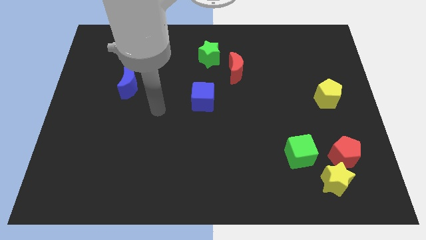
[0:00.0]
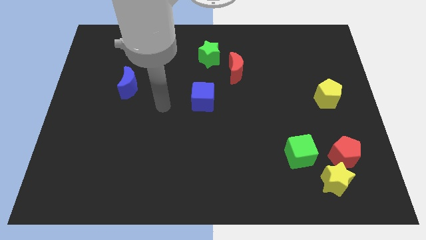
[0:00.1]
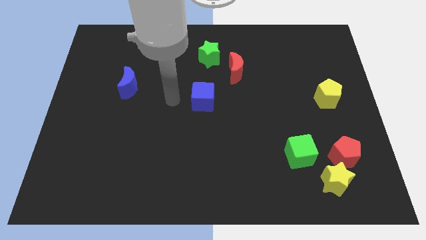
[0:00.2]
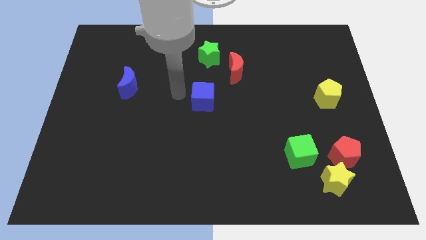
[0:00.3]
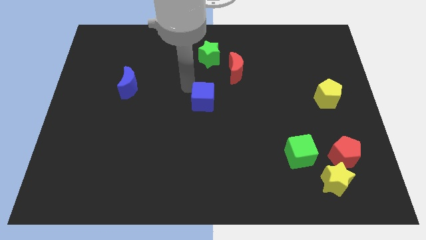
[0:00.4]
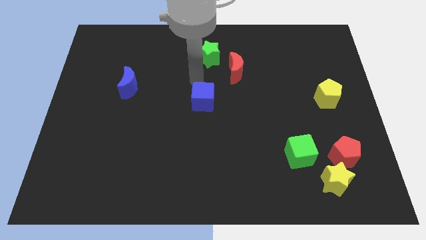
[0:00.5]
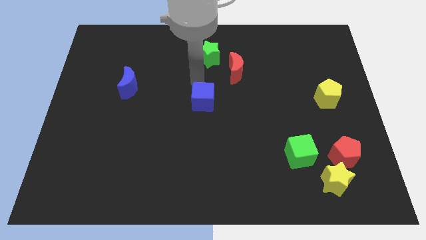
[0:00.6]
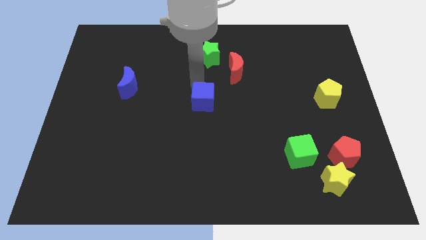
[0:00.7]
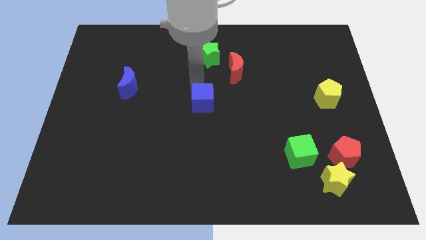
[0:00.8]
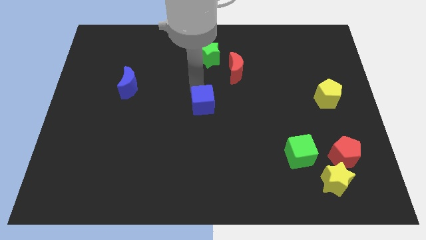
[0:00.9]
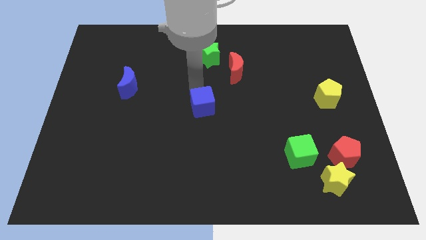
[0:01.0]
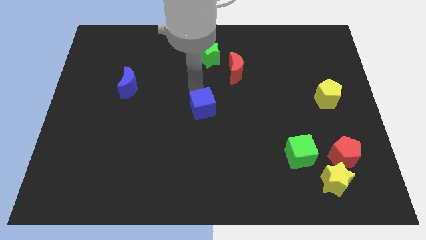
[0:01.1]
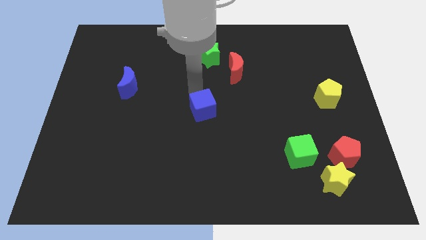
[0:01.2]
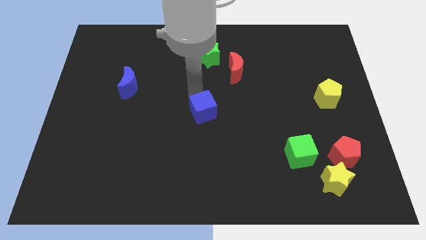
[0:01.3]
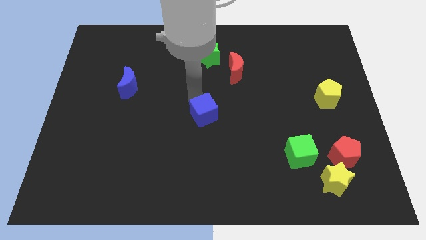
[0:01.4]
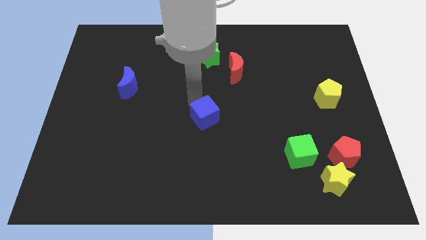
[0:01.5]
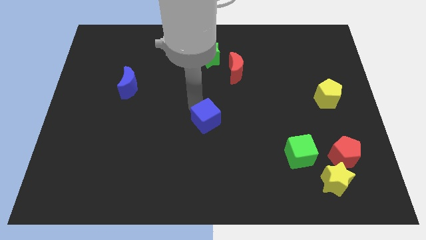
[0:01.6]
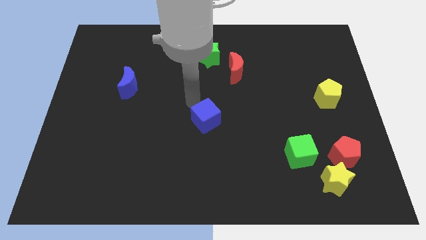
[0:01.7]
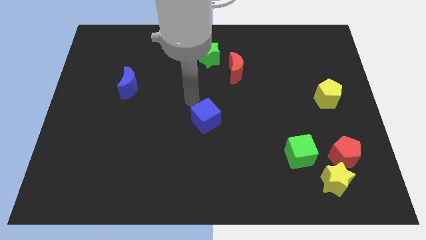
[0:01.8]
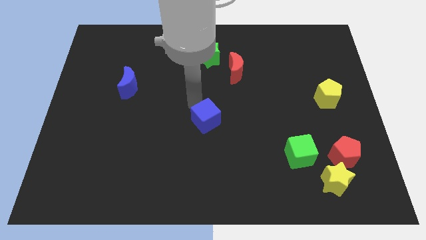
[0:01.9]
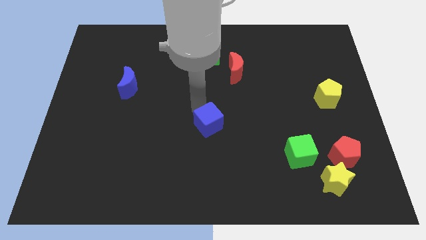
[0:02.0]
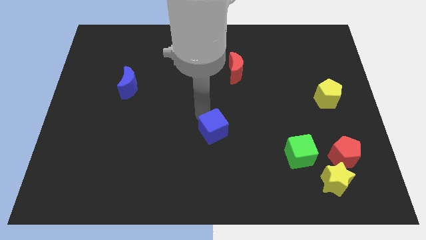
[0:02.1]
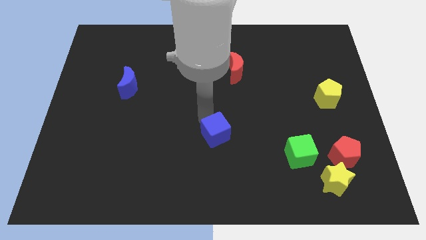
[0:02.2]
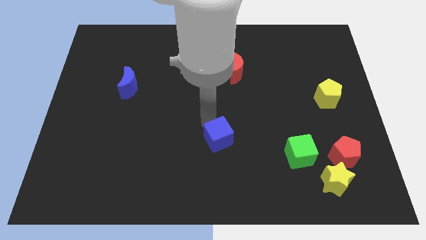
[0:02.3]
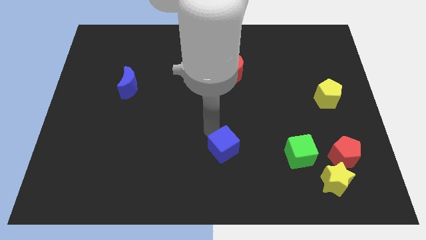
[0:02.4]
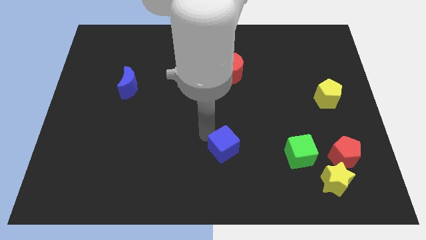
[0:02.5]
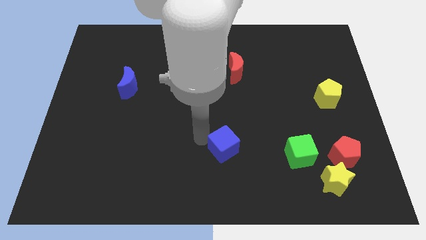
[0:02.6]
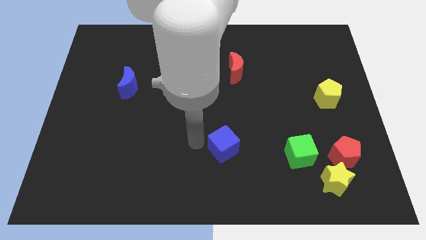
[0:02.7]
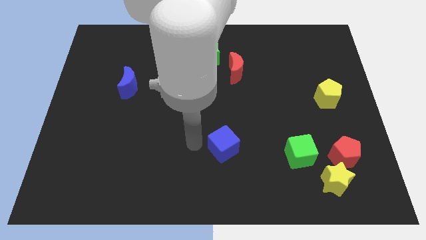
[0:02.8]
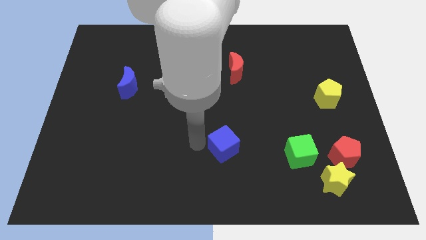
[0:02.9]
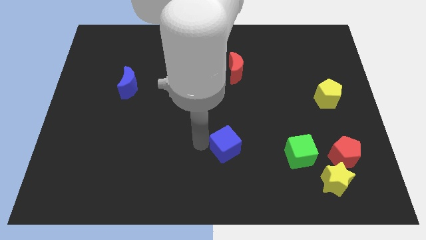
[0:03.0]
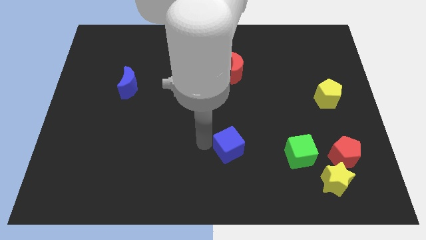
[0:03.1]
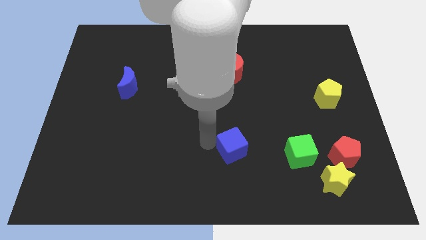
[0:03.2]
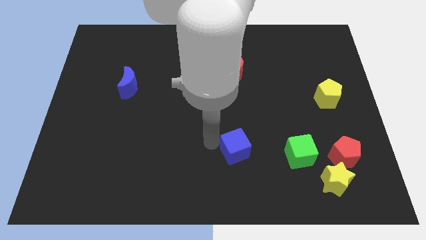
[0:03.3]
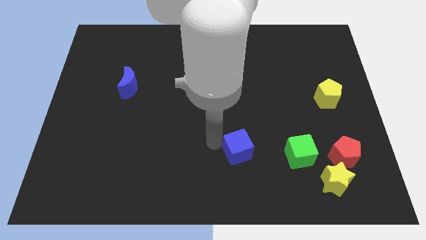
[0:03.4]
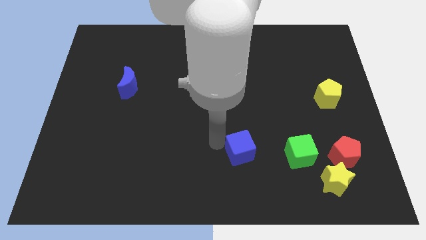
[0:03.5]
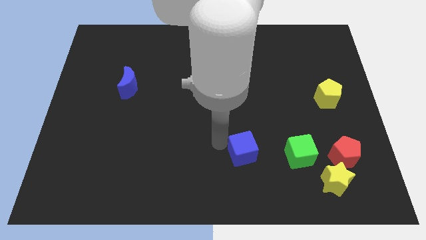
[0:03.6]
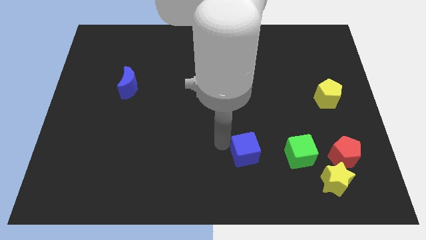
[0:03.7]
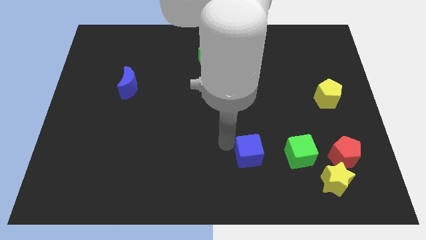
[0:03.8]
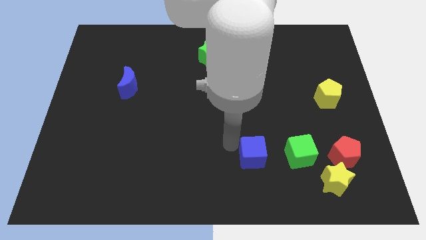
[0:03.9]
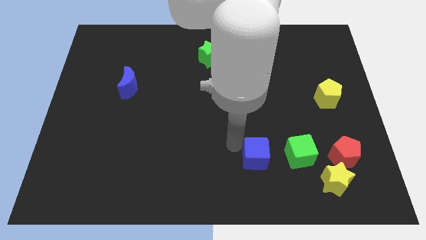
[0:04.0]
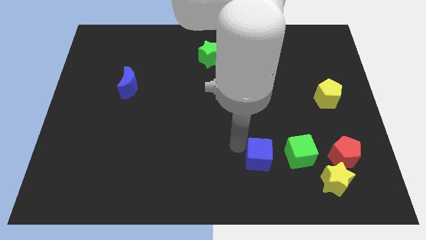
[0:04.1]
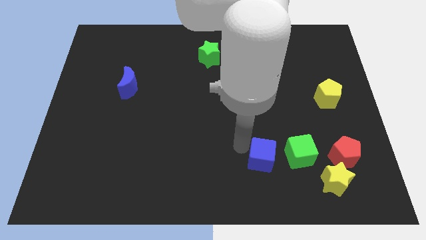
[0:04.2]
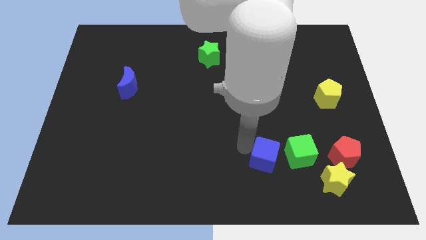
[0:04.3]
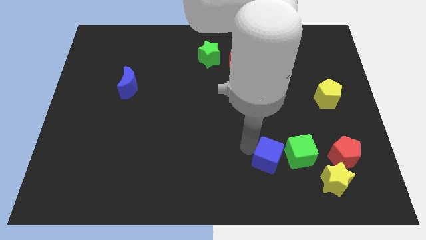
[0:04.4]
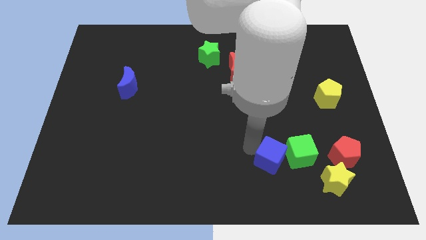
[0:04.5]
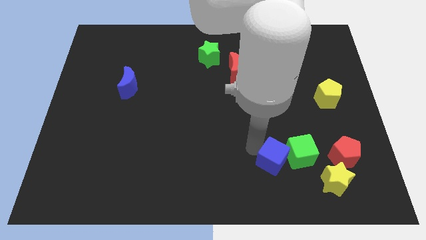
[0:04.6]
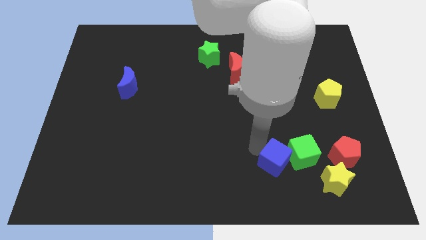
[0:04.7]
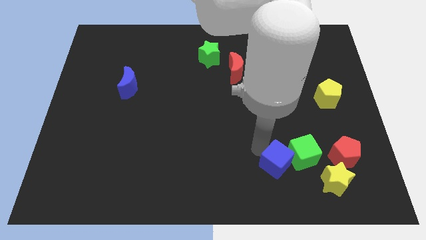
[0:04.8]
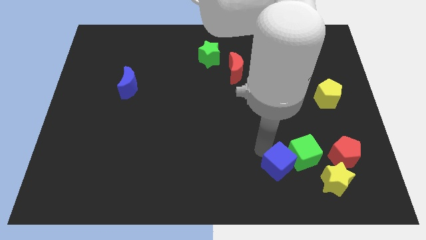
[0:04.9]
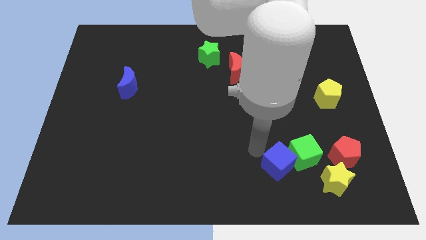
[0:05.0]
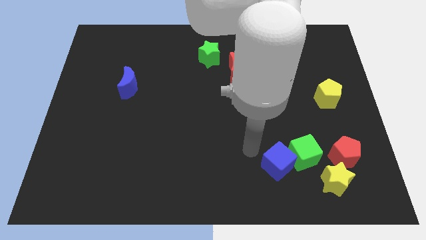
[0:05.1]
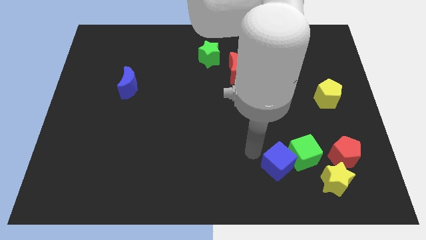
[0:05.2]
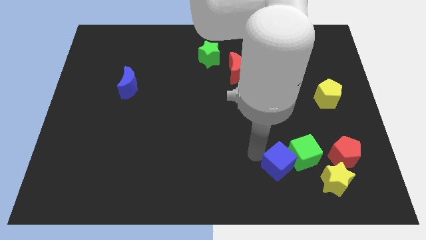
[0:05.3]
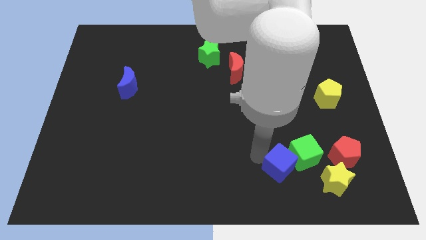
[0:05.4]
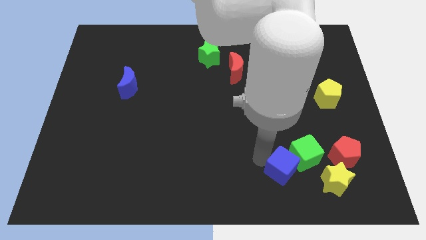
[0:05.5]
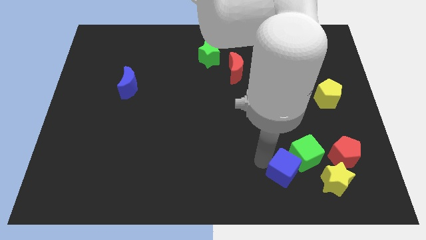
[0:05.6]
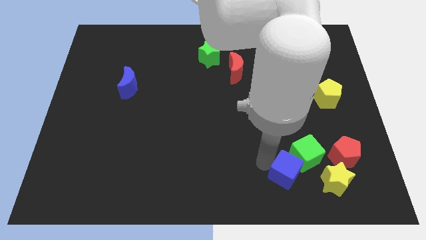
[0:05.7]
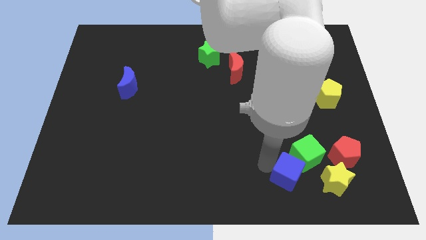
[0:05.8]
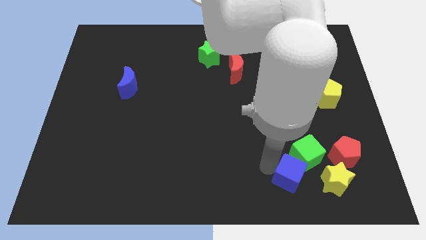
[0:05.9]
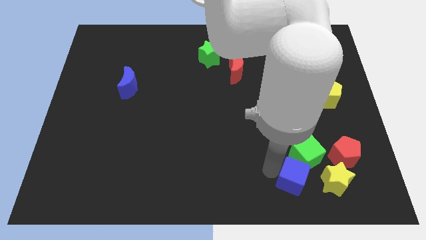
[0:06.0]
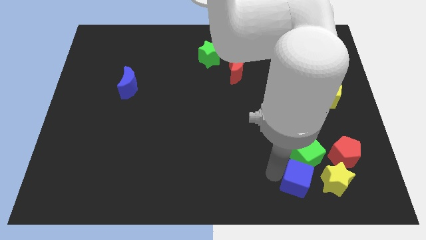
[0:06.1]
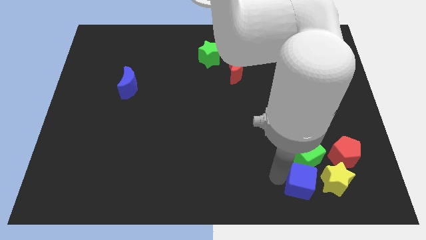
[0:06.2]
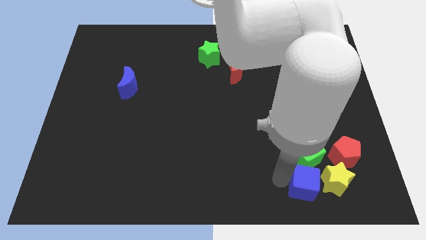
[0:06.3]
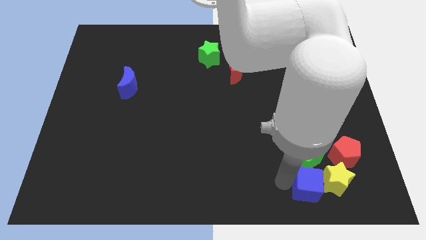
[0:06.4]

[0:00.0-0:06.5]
push the blue cube next to the yellow star
